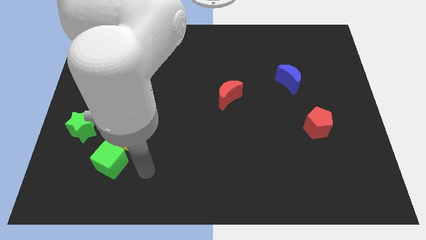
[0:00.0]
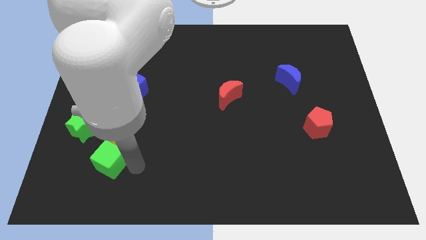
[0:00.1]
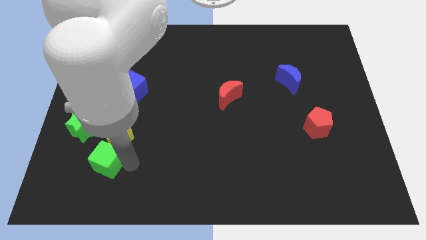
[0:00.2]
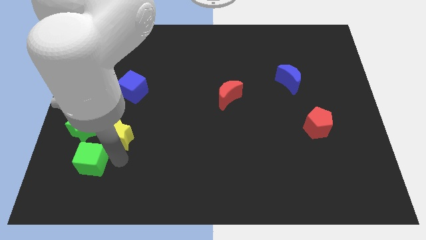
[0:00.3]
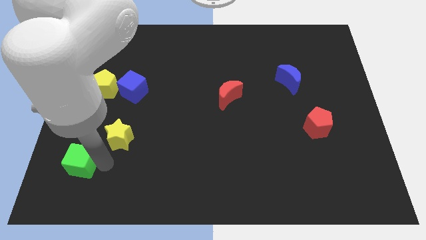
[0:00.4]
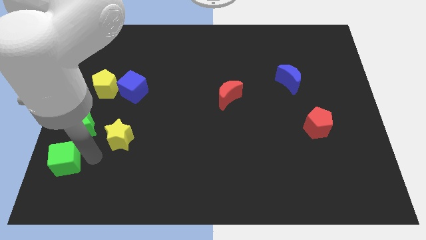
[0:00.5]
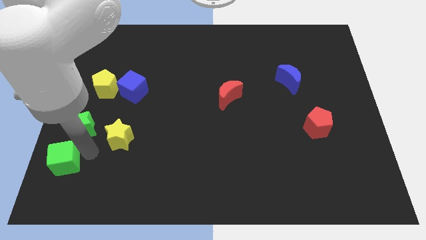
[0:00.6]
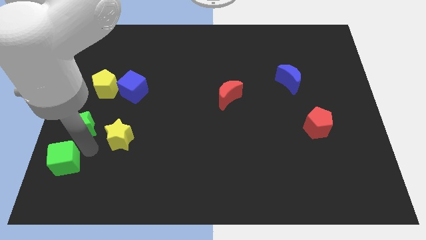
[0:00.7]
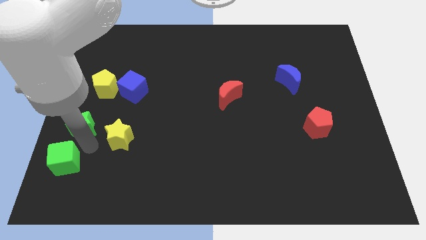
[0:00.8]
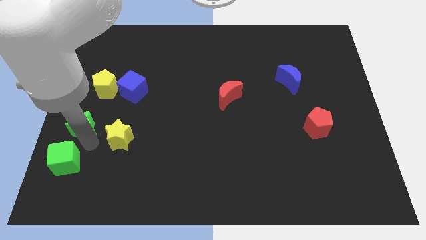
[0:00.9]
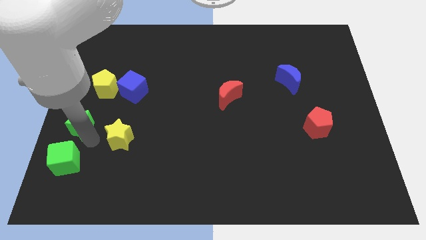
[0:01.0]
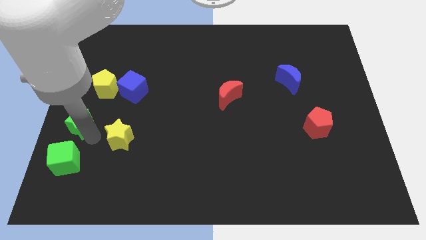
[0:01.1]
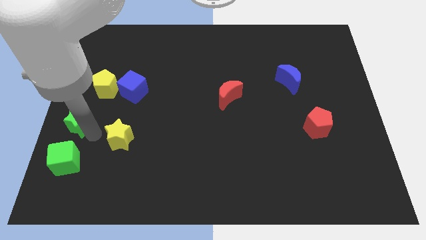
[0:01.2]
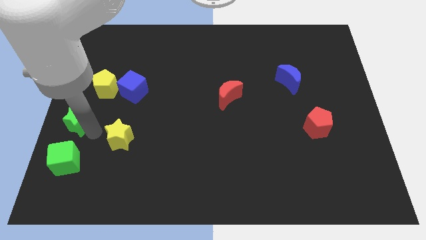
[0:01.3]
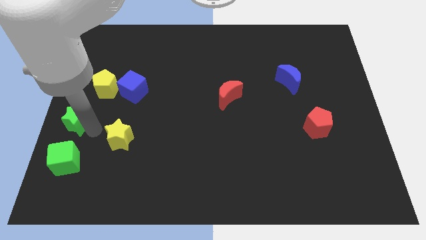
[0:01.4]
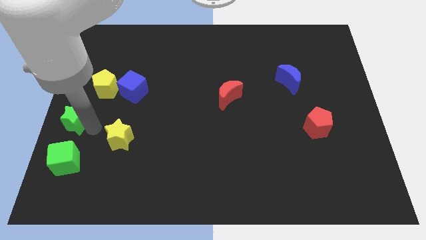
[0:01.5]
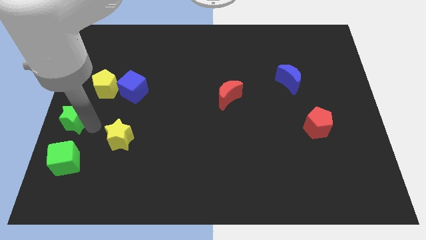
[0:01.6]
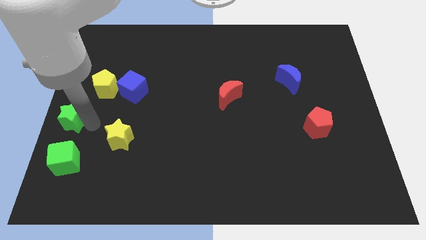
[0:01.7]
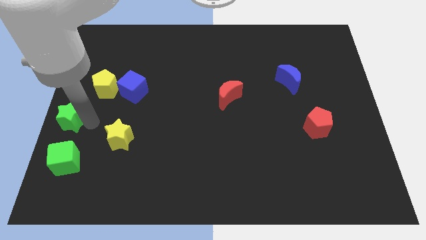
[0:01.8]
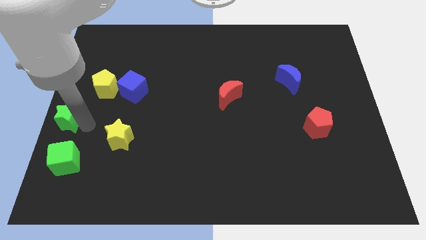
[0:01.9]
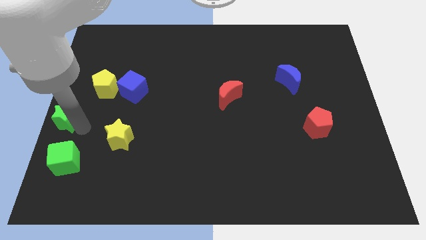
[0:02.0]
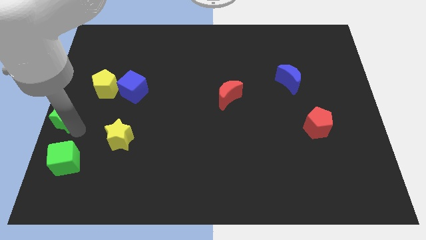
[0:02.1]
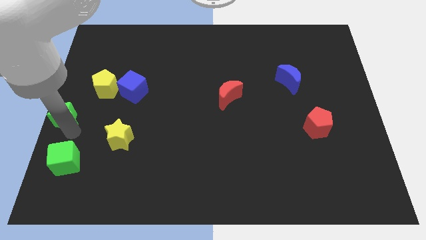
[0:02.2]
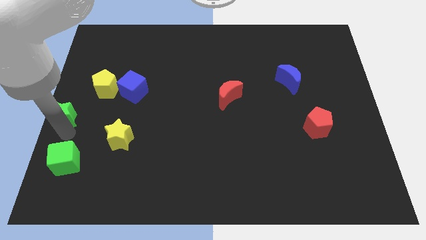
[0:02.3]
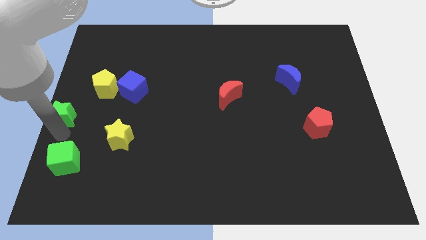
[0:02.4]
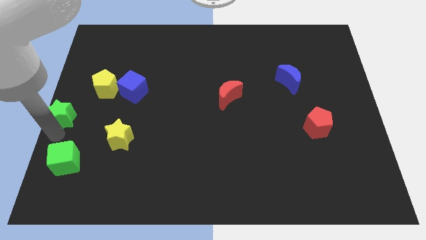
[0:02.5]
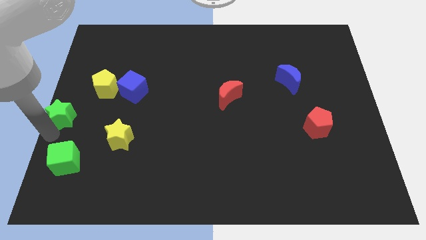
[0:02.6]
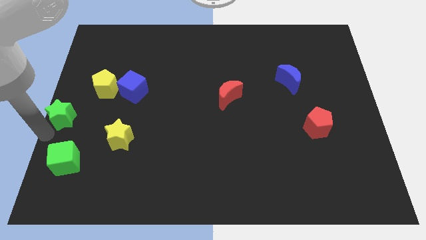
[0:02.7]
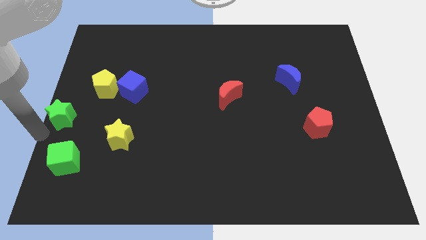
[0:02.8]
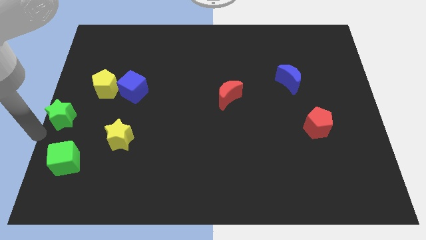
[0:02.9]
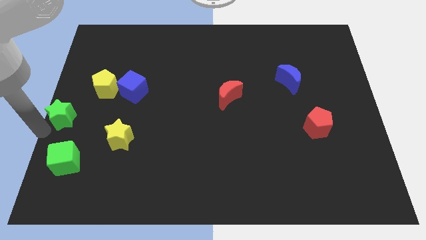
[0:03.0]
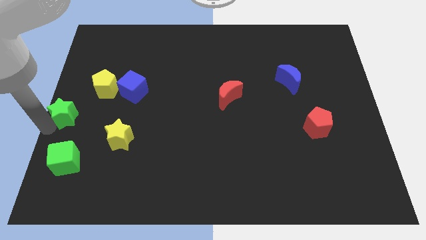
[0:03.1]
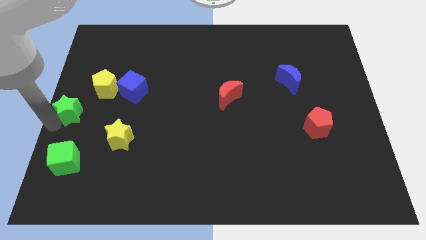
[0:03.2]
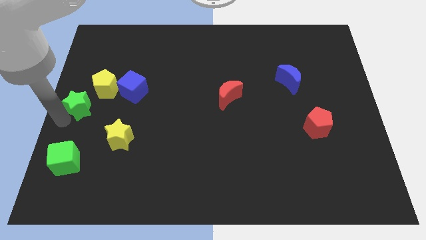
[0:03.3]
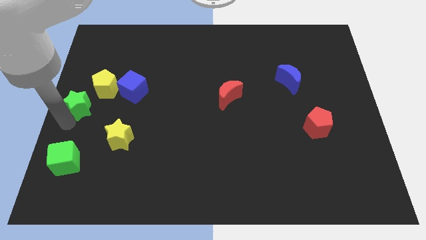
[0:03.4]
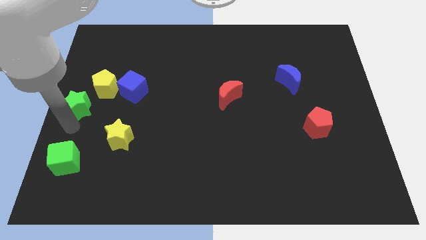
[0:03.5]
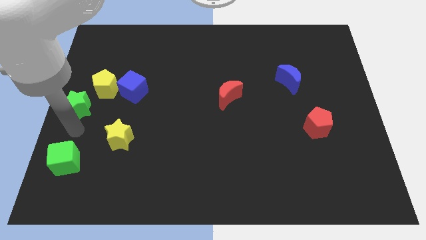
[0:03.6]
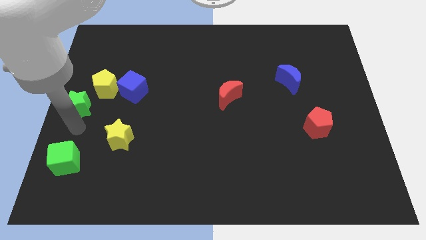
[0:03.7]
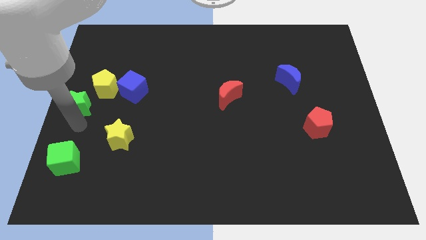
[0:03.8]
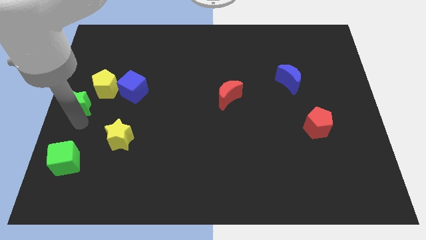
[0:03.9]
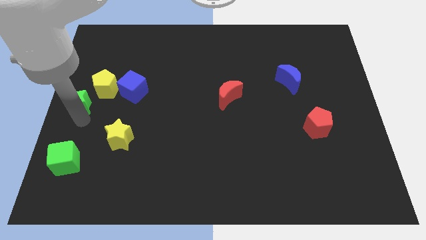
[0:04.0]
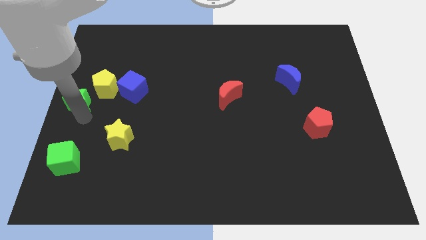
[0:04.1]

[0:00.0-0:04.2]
slightly push the green star up

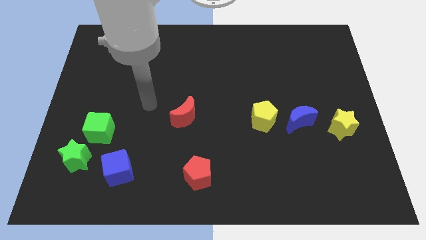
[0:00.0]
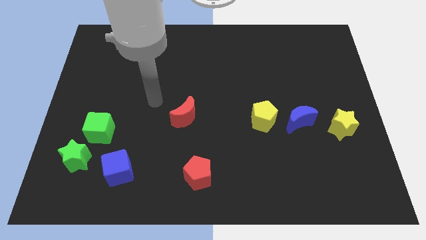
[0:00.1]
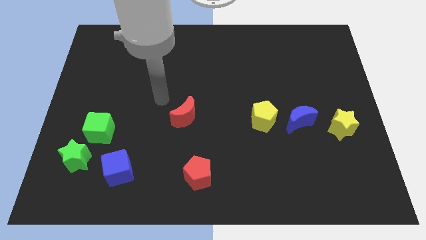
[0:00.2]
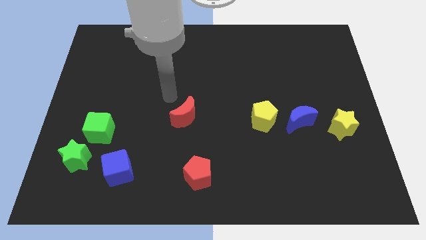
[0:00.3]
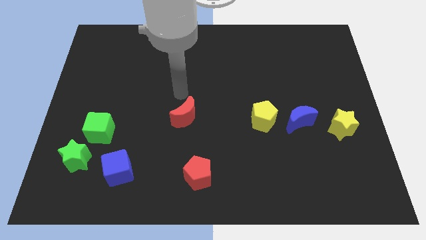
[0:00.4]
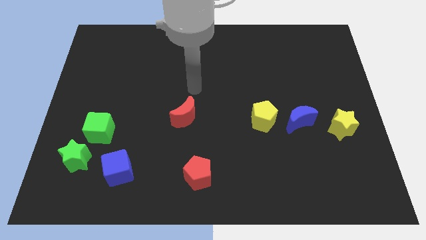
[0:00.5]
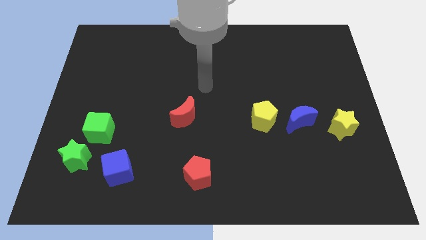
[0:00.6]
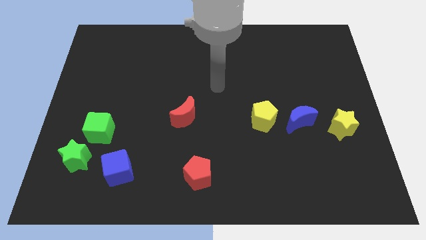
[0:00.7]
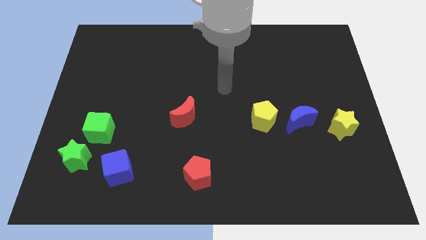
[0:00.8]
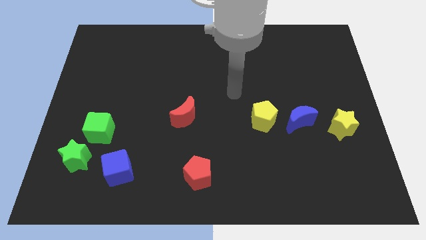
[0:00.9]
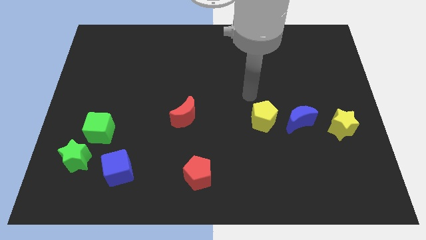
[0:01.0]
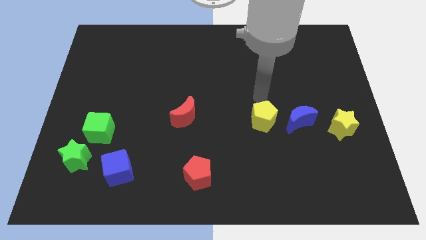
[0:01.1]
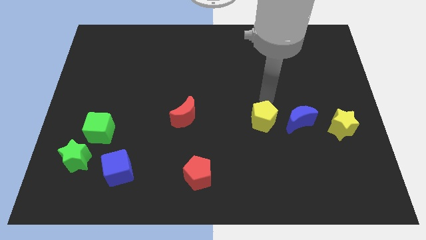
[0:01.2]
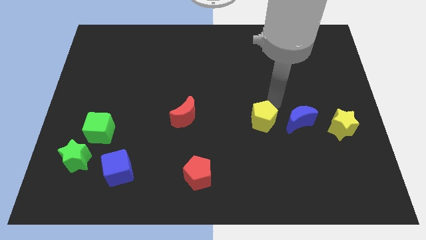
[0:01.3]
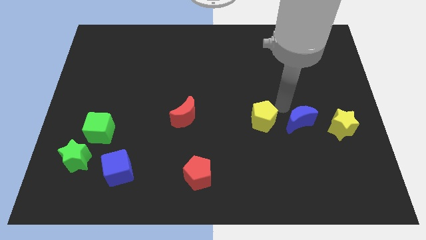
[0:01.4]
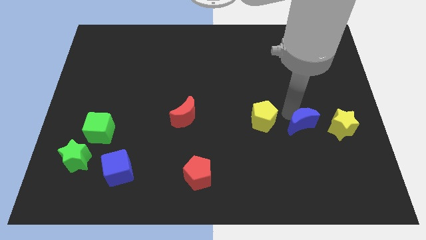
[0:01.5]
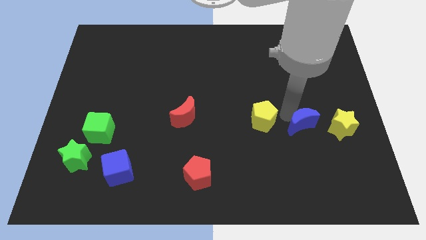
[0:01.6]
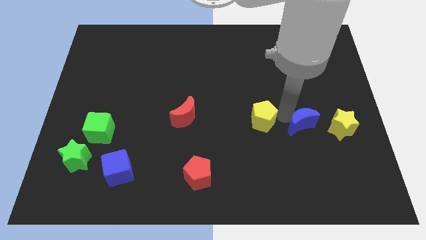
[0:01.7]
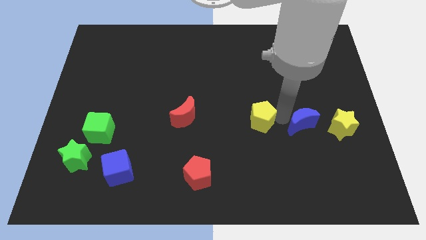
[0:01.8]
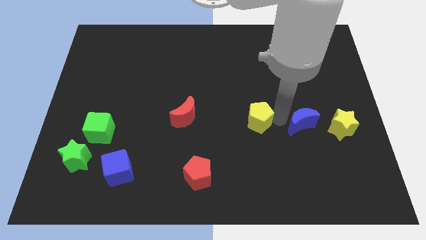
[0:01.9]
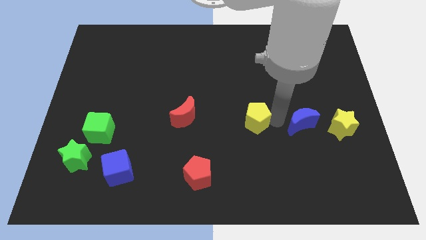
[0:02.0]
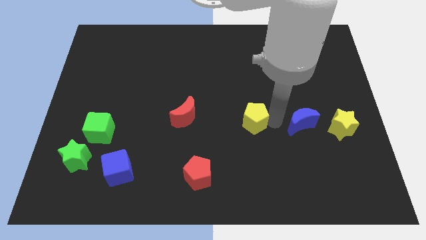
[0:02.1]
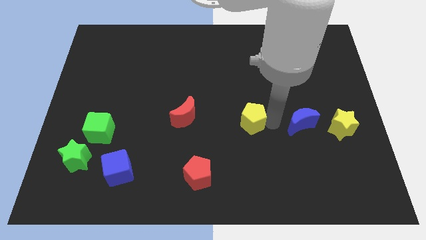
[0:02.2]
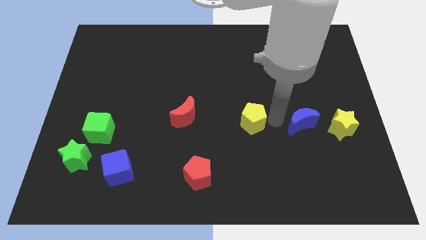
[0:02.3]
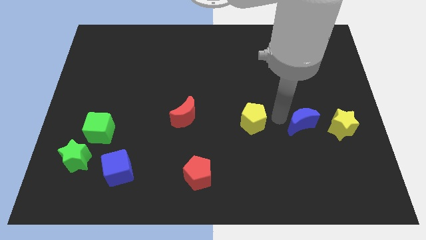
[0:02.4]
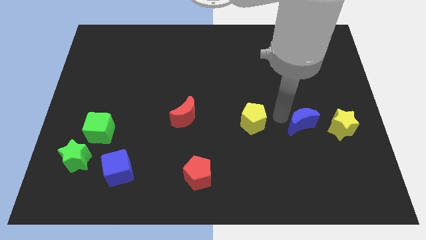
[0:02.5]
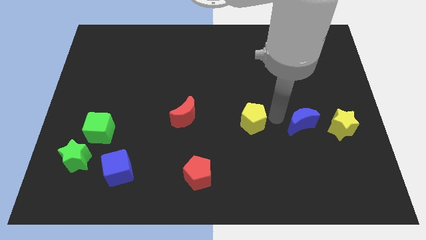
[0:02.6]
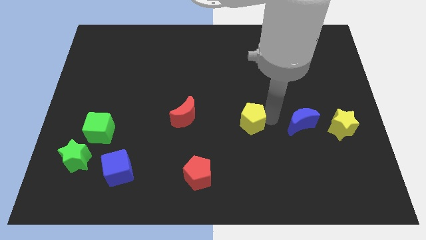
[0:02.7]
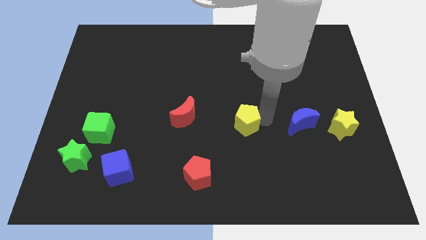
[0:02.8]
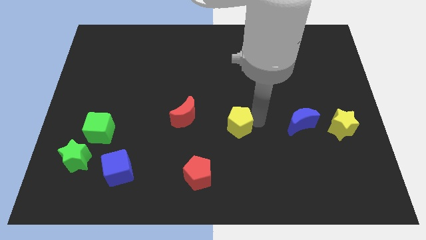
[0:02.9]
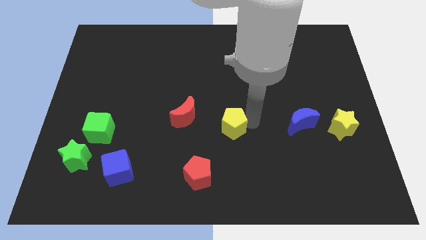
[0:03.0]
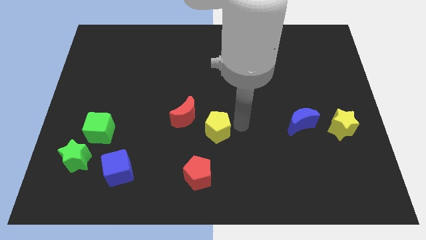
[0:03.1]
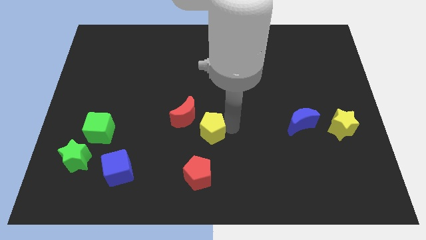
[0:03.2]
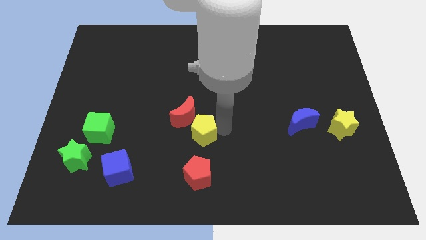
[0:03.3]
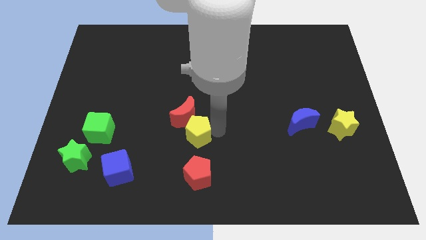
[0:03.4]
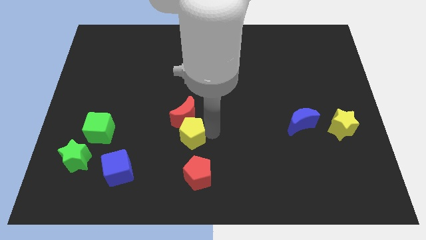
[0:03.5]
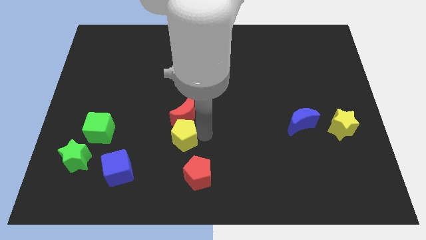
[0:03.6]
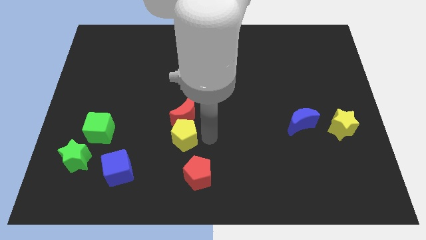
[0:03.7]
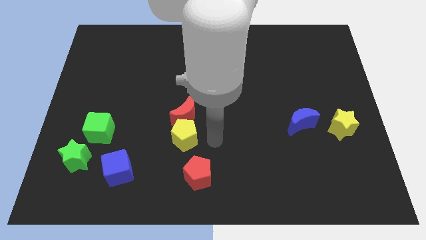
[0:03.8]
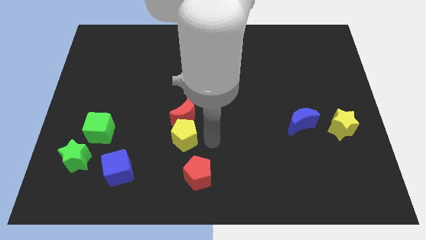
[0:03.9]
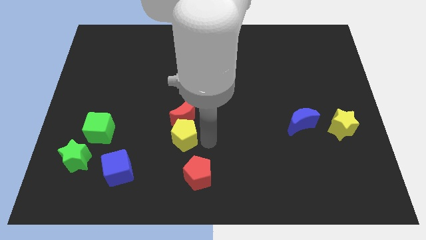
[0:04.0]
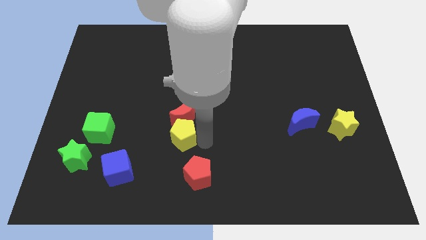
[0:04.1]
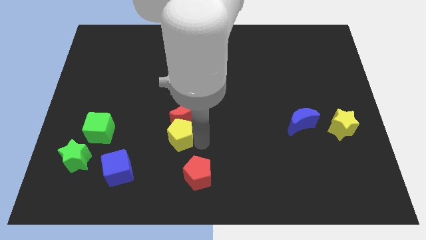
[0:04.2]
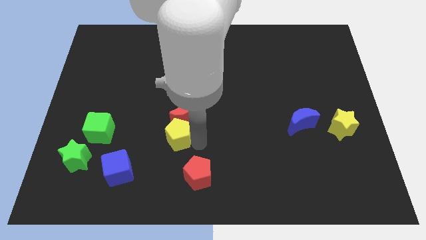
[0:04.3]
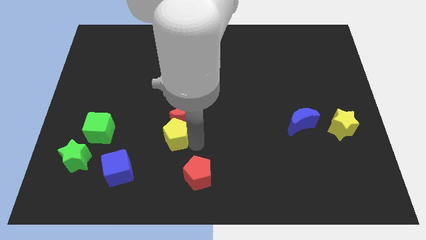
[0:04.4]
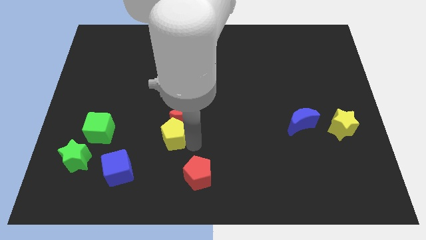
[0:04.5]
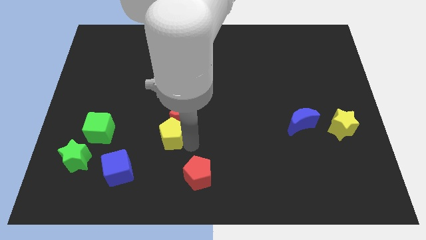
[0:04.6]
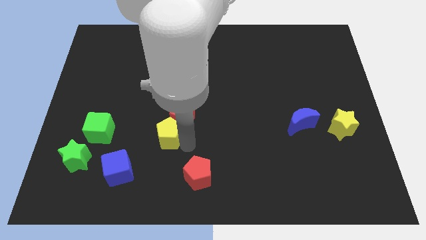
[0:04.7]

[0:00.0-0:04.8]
move the yellow pentagon left
